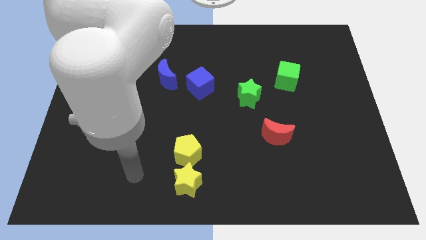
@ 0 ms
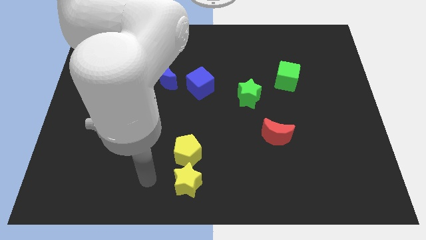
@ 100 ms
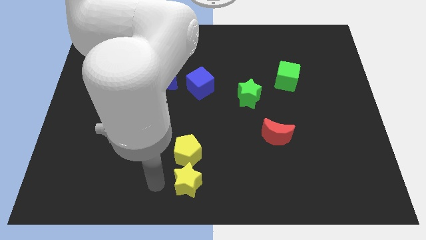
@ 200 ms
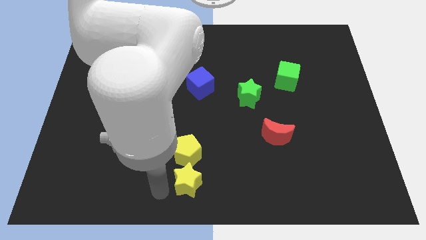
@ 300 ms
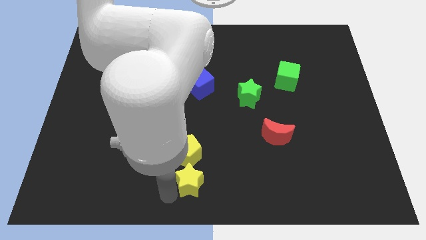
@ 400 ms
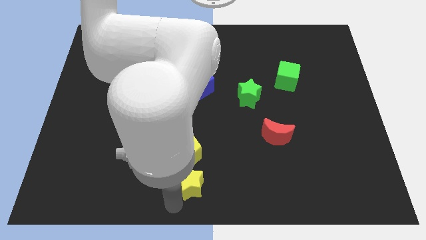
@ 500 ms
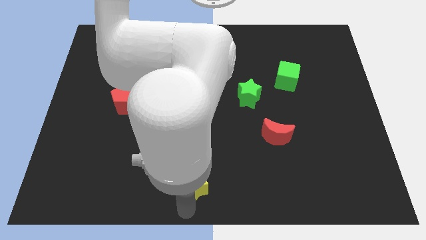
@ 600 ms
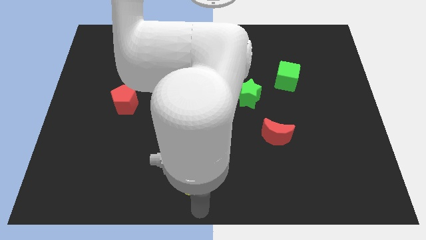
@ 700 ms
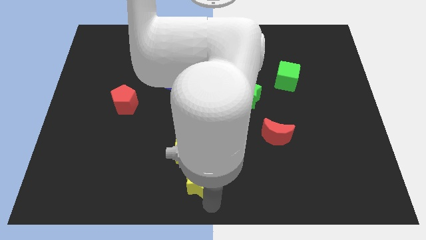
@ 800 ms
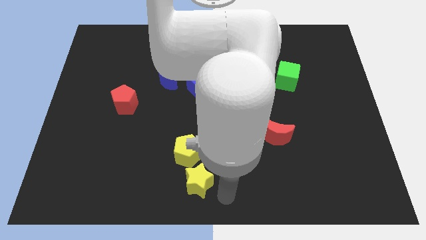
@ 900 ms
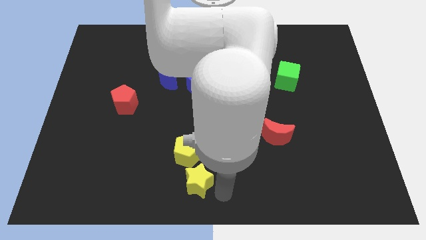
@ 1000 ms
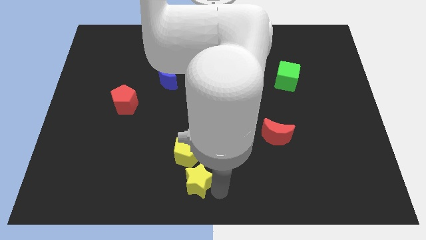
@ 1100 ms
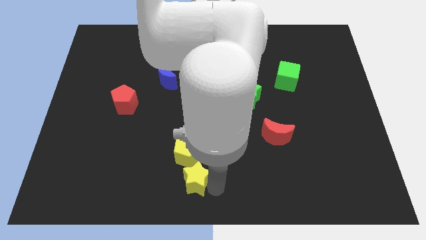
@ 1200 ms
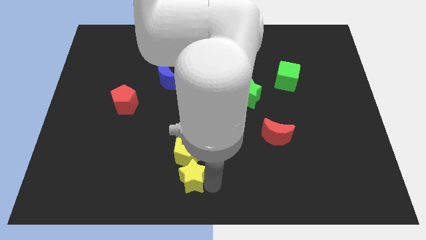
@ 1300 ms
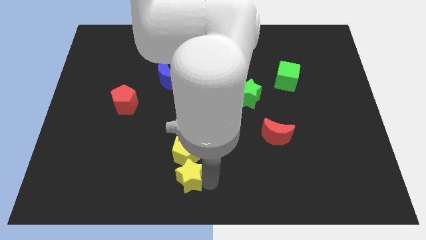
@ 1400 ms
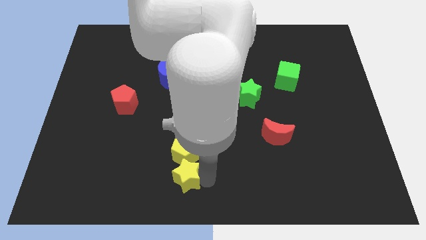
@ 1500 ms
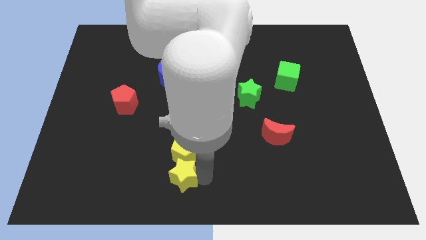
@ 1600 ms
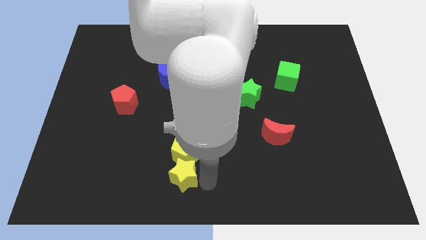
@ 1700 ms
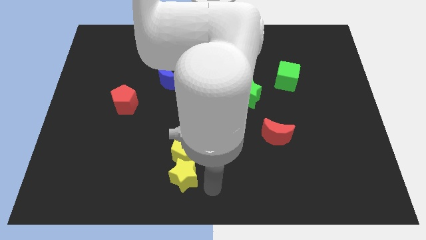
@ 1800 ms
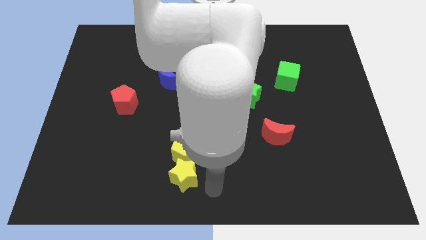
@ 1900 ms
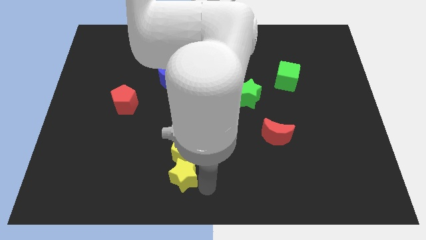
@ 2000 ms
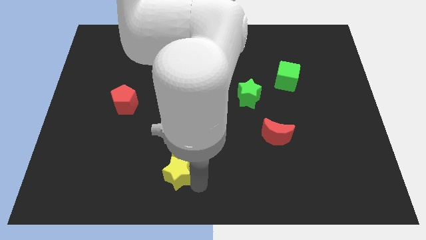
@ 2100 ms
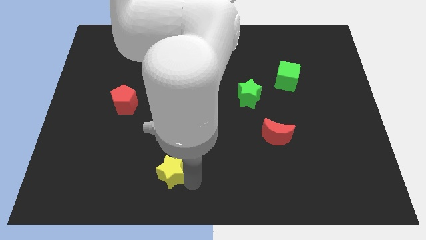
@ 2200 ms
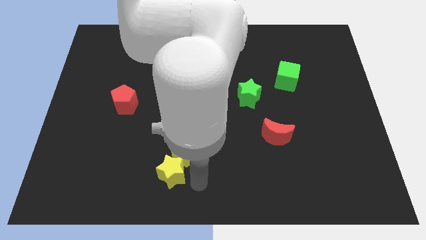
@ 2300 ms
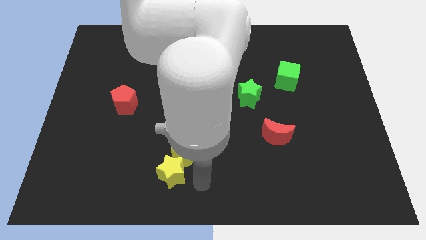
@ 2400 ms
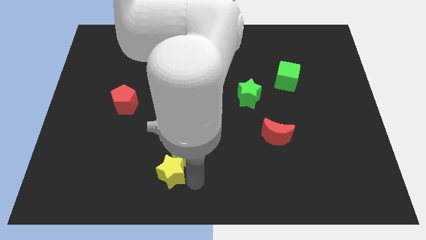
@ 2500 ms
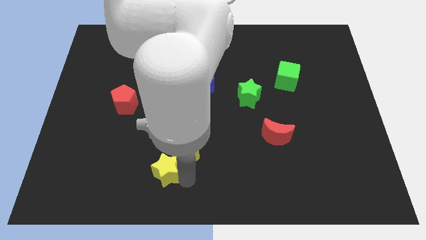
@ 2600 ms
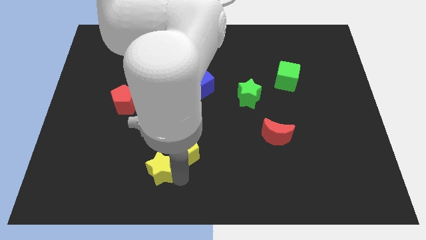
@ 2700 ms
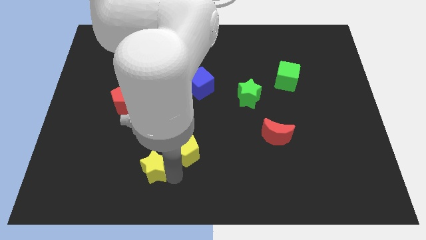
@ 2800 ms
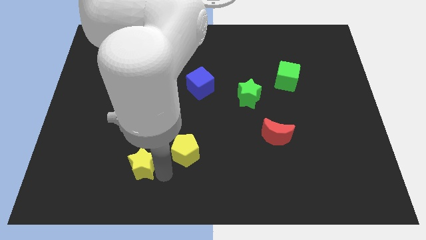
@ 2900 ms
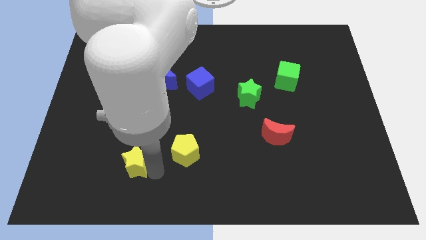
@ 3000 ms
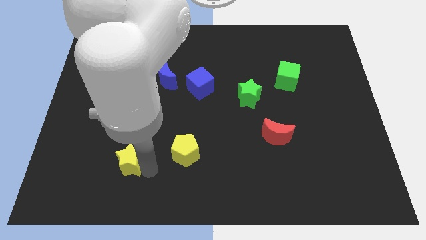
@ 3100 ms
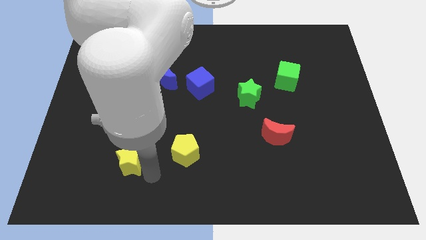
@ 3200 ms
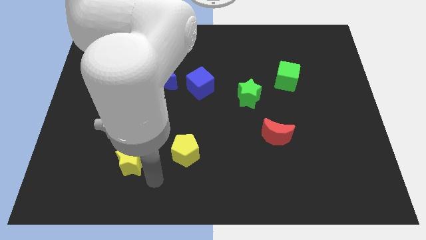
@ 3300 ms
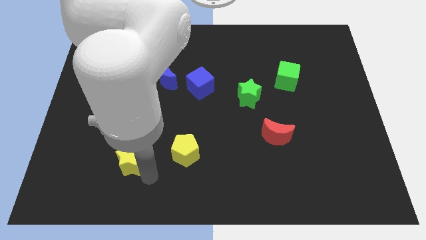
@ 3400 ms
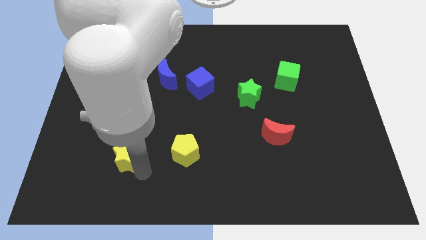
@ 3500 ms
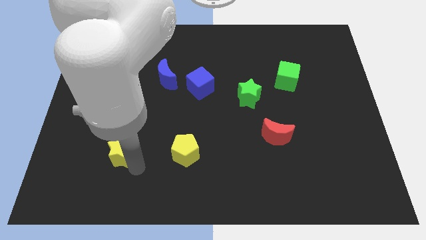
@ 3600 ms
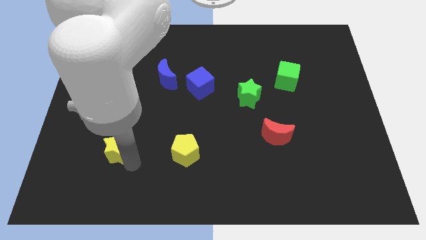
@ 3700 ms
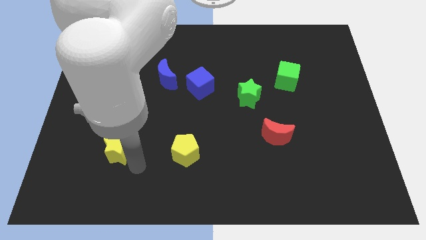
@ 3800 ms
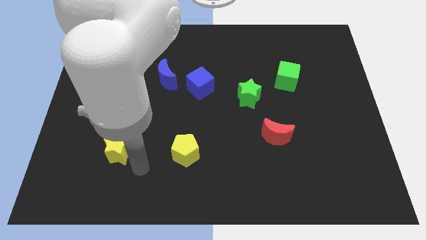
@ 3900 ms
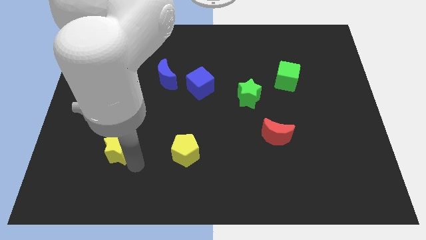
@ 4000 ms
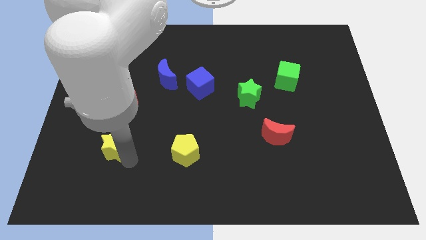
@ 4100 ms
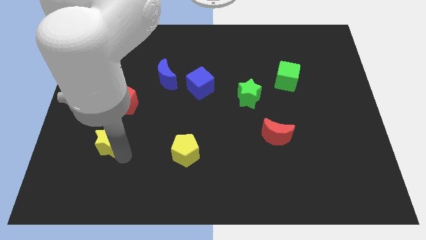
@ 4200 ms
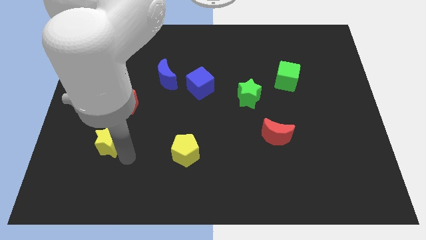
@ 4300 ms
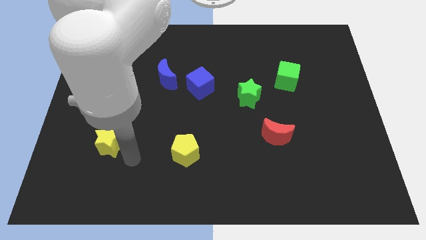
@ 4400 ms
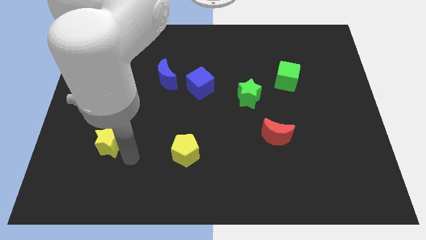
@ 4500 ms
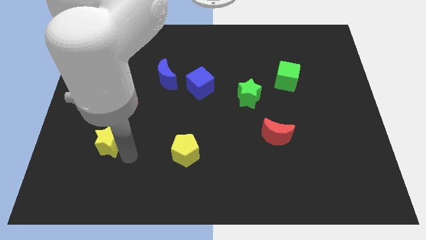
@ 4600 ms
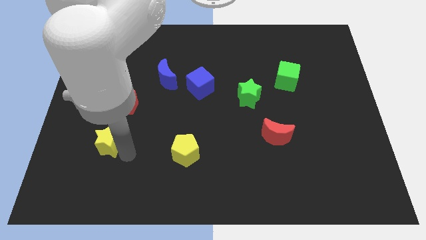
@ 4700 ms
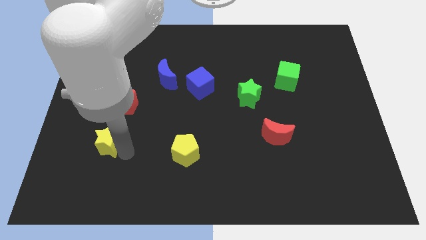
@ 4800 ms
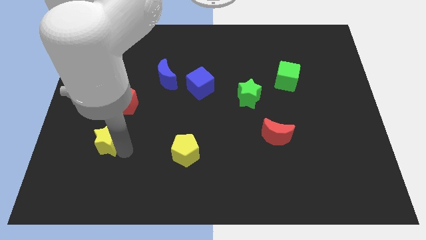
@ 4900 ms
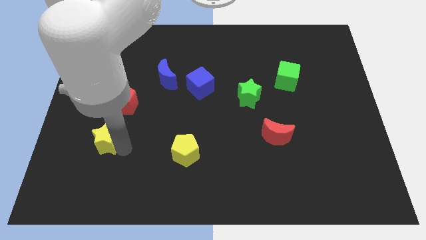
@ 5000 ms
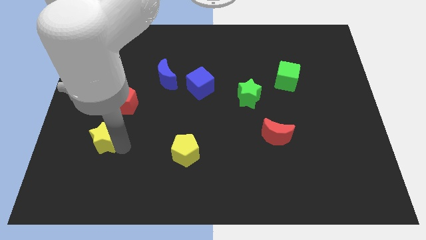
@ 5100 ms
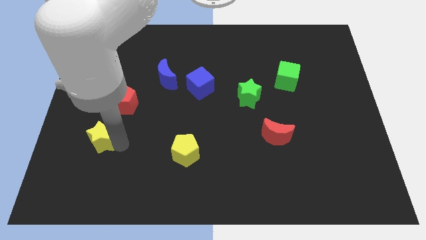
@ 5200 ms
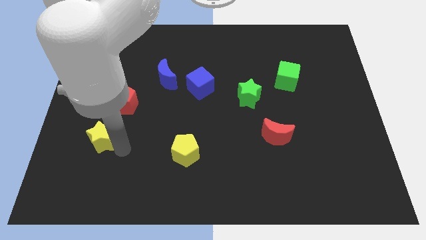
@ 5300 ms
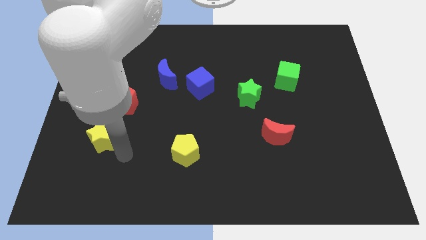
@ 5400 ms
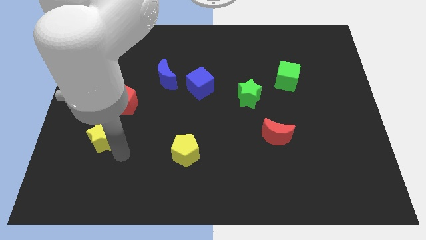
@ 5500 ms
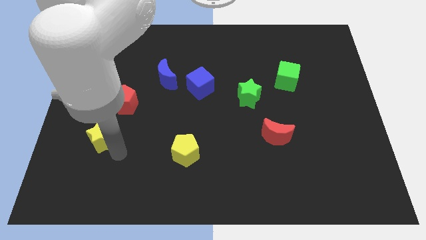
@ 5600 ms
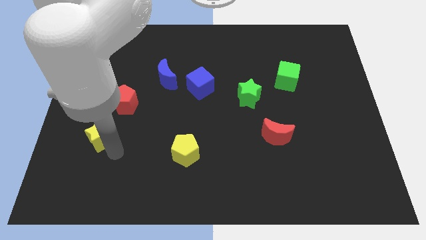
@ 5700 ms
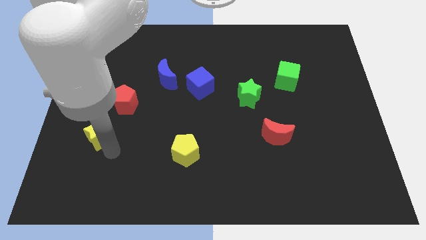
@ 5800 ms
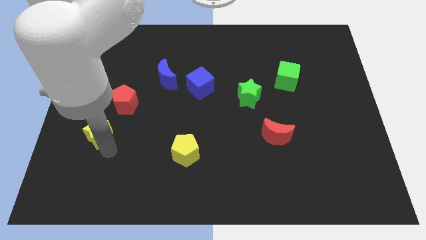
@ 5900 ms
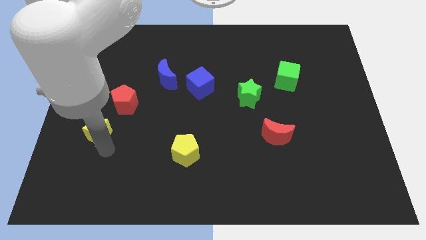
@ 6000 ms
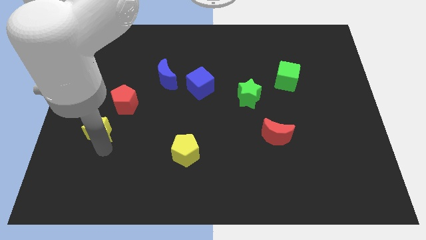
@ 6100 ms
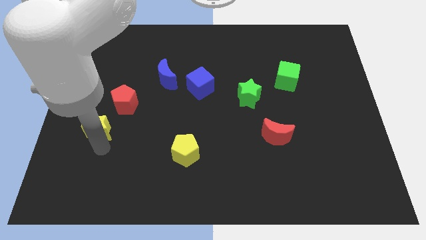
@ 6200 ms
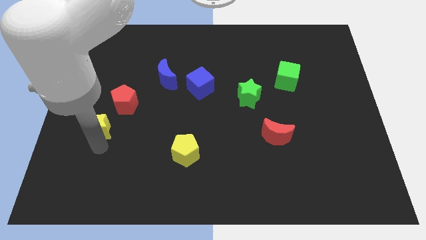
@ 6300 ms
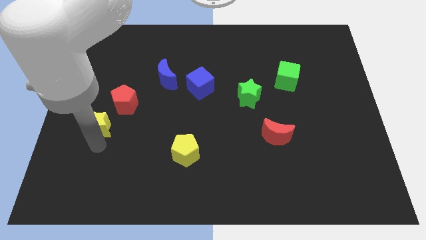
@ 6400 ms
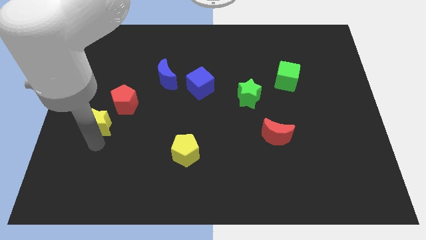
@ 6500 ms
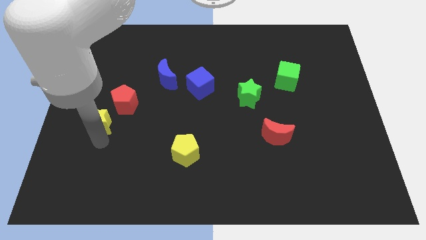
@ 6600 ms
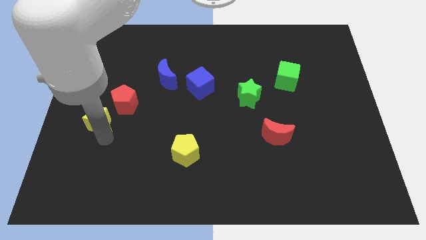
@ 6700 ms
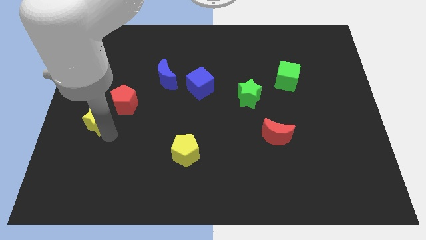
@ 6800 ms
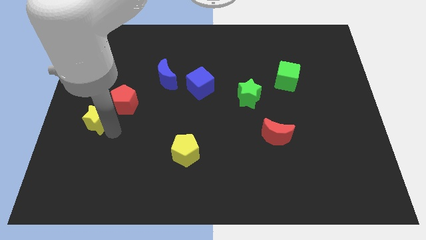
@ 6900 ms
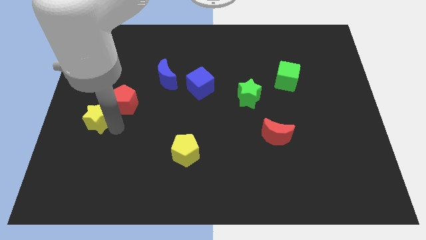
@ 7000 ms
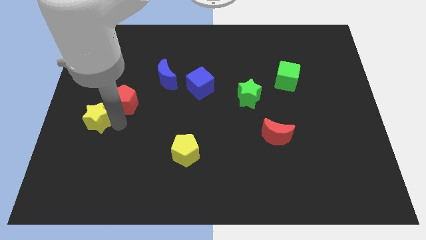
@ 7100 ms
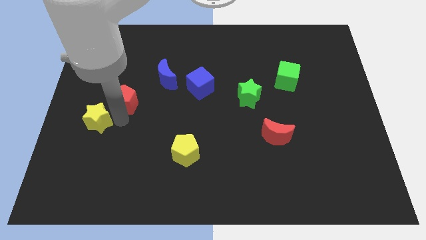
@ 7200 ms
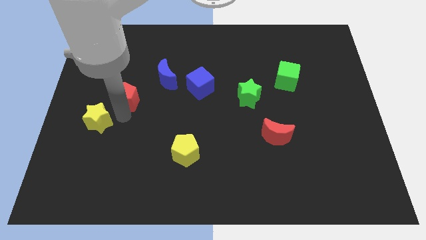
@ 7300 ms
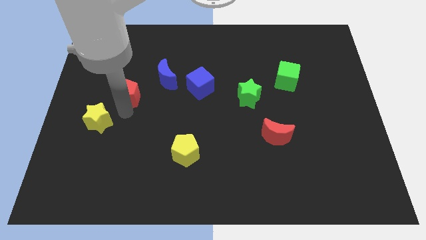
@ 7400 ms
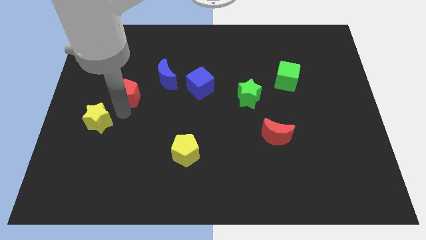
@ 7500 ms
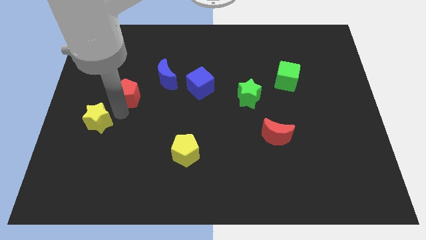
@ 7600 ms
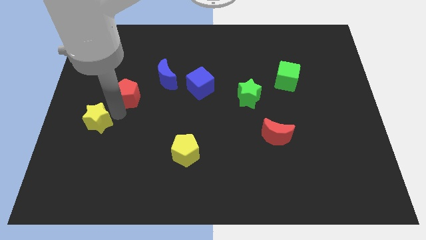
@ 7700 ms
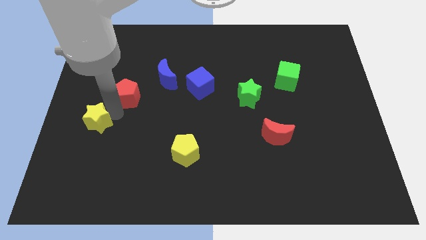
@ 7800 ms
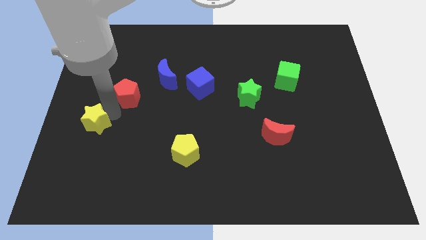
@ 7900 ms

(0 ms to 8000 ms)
put the yellow star to the left side
